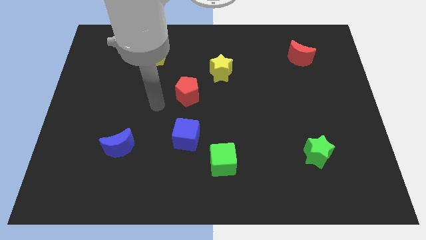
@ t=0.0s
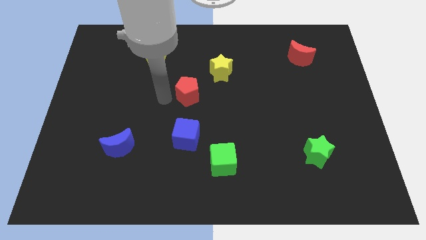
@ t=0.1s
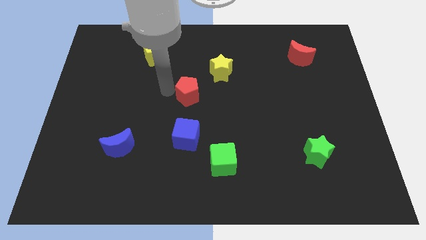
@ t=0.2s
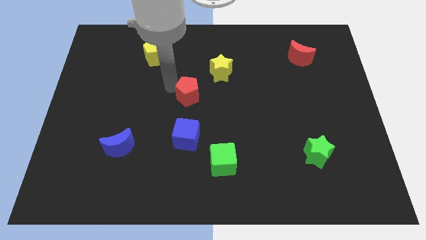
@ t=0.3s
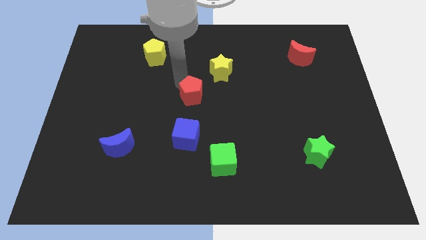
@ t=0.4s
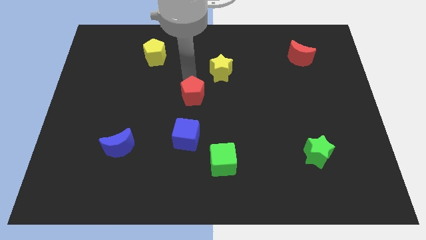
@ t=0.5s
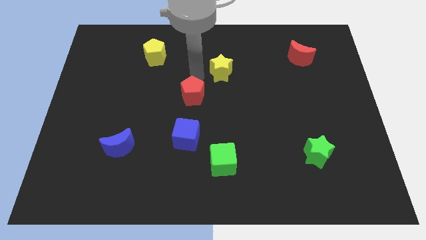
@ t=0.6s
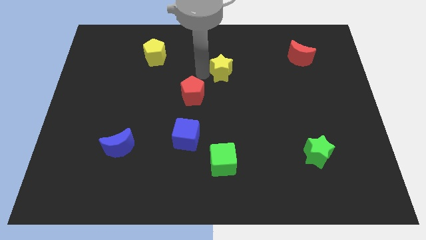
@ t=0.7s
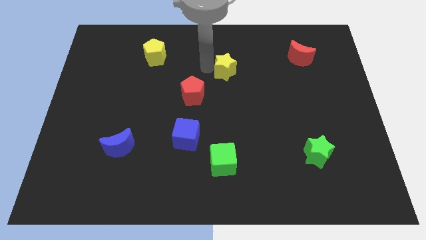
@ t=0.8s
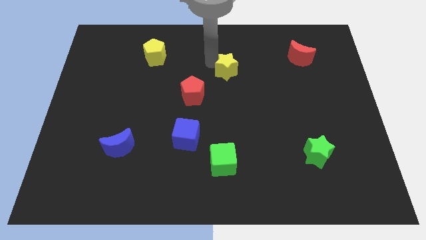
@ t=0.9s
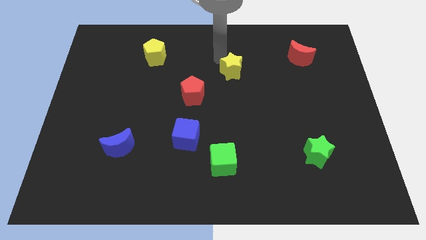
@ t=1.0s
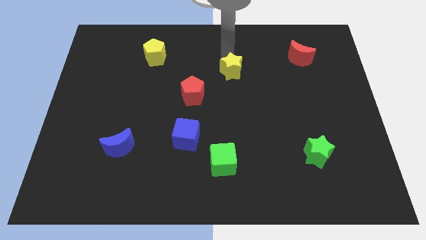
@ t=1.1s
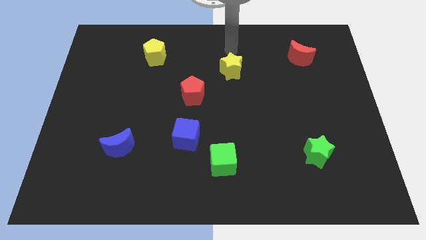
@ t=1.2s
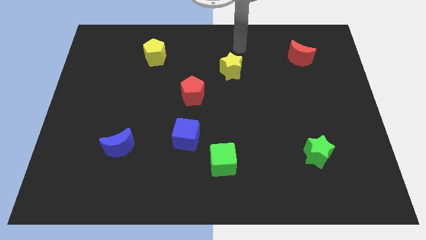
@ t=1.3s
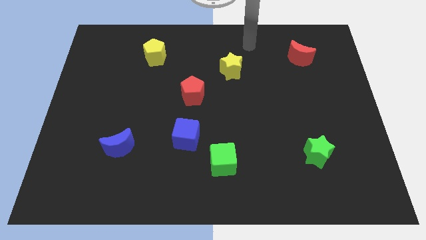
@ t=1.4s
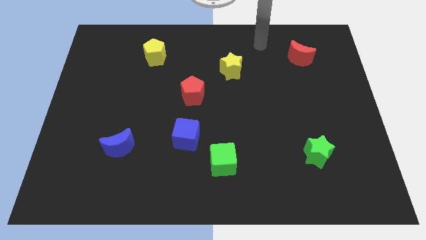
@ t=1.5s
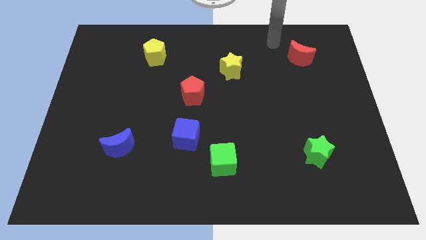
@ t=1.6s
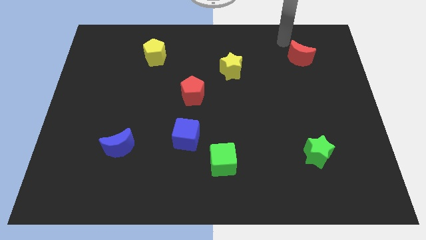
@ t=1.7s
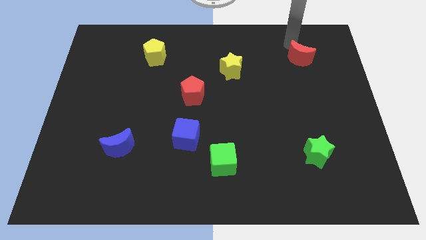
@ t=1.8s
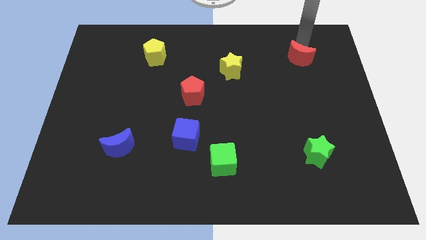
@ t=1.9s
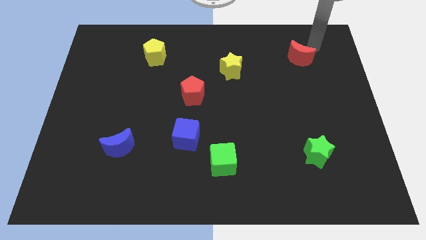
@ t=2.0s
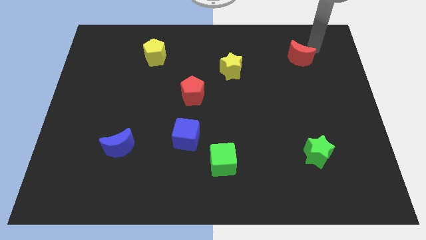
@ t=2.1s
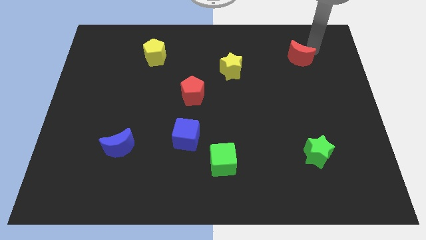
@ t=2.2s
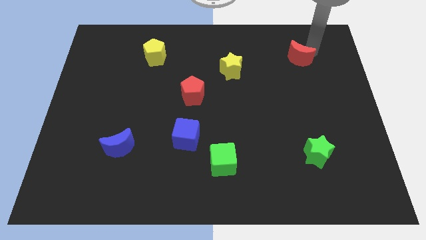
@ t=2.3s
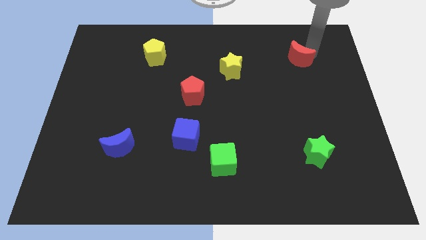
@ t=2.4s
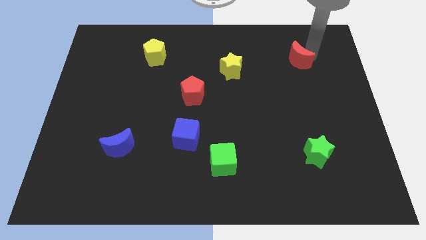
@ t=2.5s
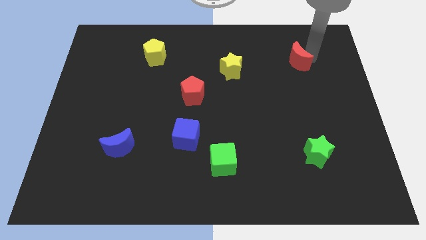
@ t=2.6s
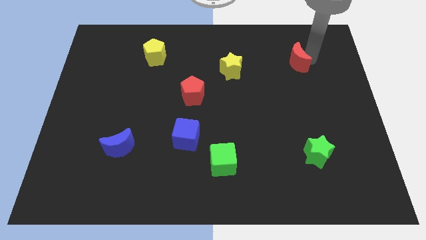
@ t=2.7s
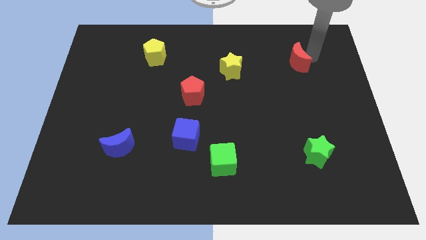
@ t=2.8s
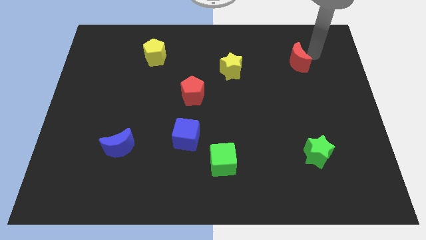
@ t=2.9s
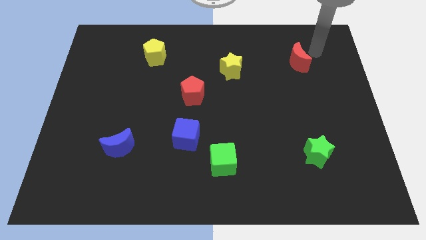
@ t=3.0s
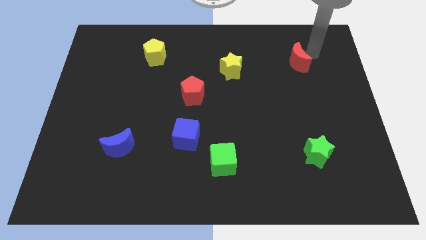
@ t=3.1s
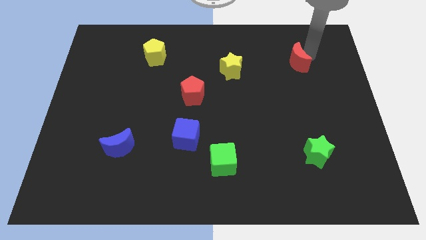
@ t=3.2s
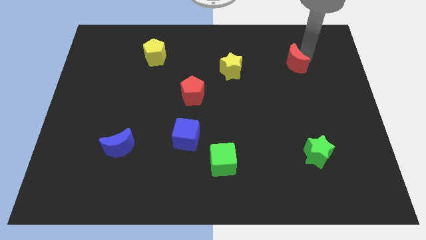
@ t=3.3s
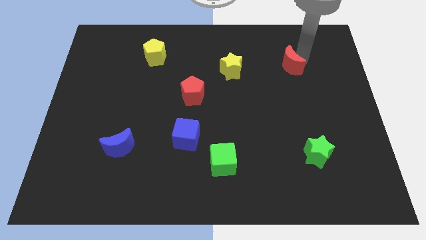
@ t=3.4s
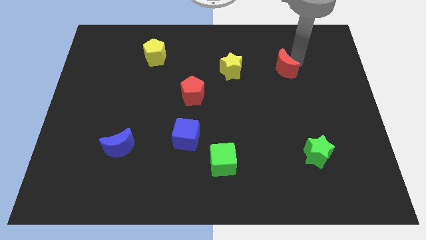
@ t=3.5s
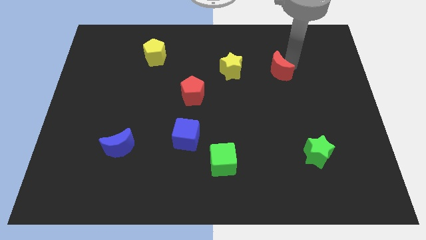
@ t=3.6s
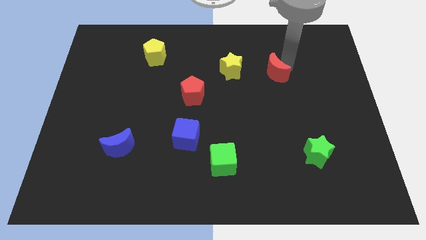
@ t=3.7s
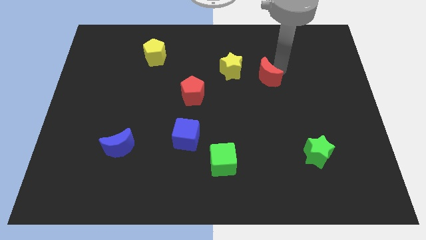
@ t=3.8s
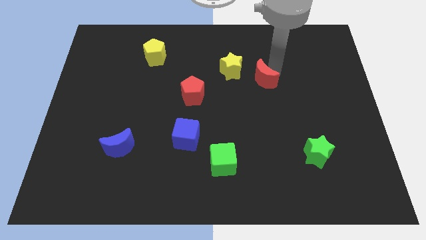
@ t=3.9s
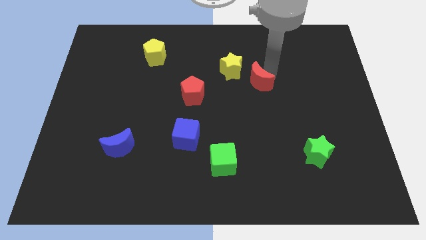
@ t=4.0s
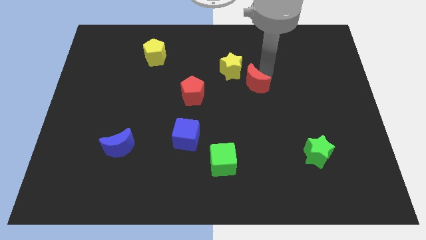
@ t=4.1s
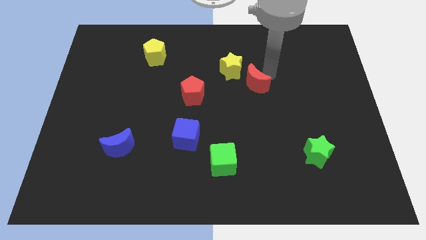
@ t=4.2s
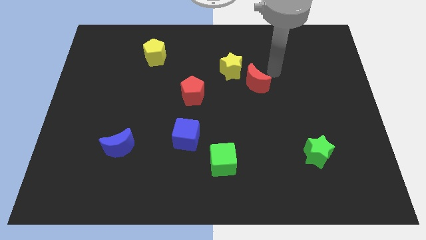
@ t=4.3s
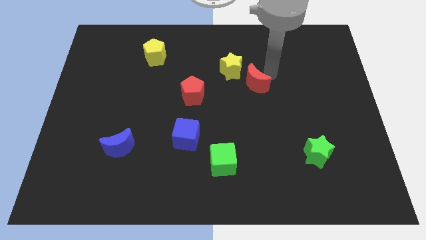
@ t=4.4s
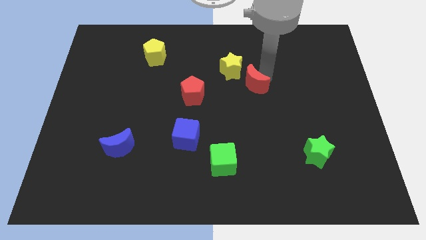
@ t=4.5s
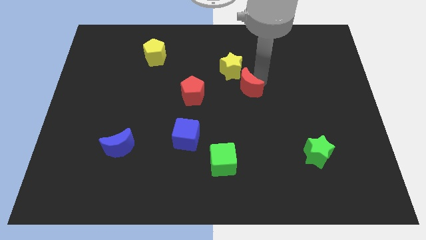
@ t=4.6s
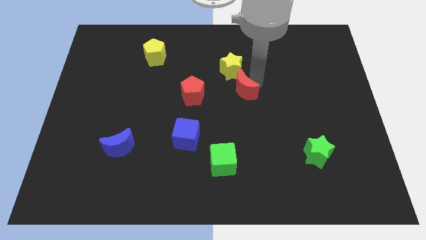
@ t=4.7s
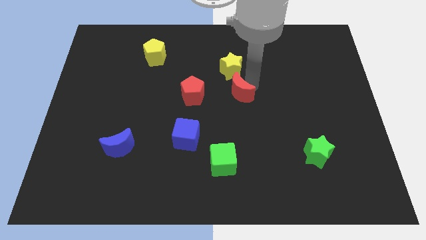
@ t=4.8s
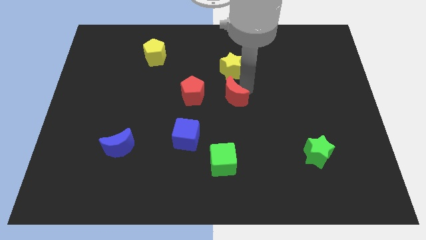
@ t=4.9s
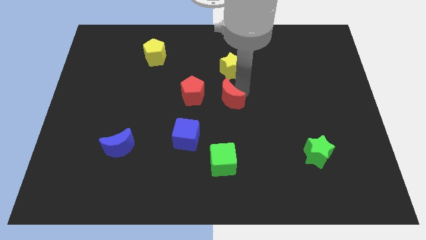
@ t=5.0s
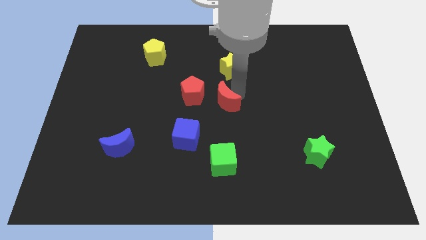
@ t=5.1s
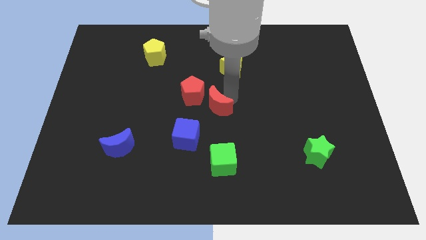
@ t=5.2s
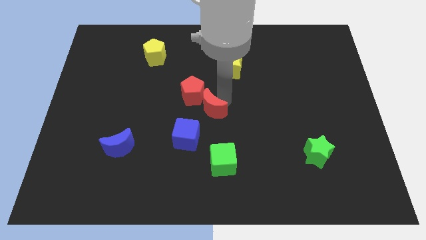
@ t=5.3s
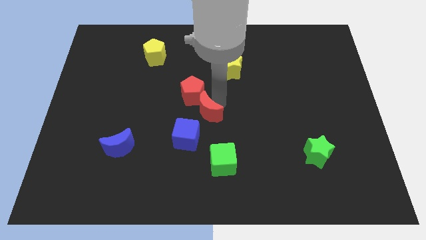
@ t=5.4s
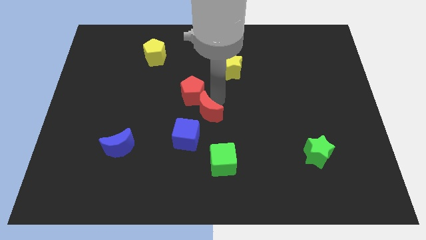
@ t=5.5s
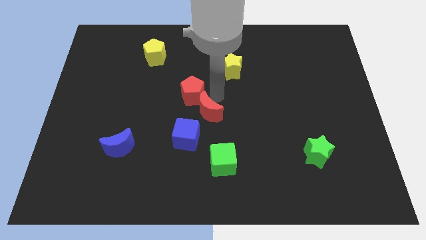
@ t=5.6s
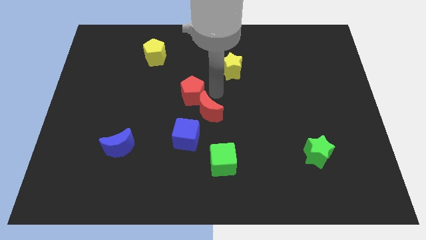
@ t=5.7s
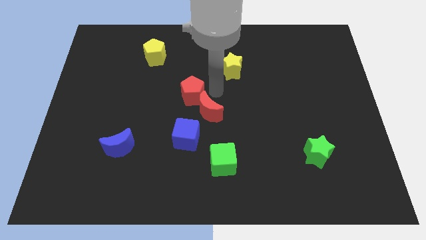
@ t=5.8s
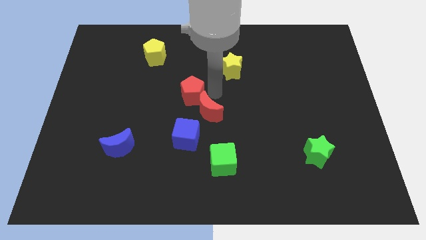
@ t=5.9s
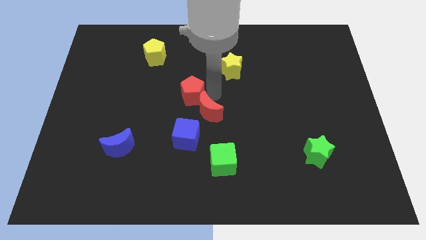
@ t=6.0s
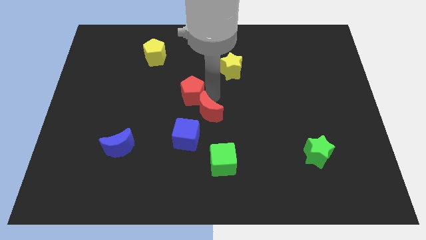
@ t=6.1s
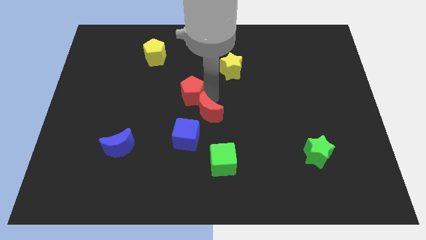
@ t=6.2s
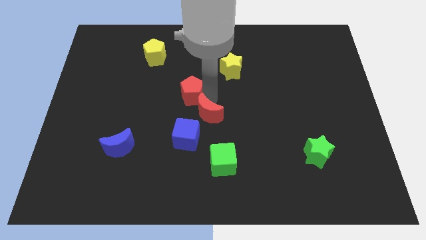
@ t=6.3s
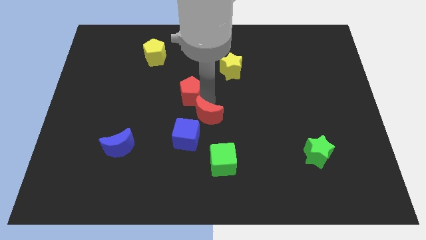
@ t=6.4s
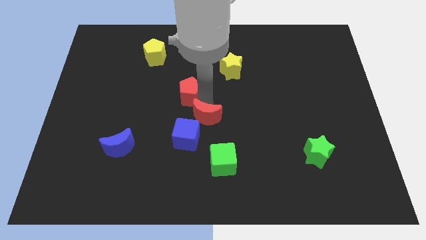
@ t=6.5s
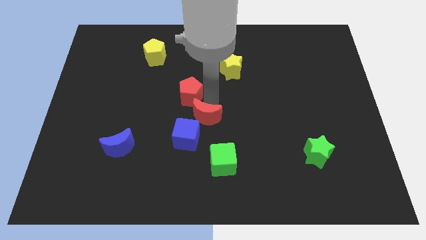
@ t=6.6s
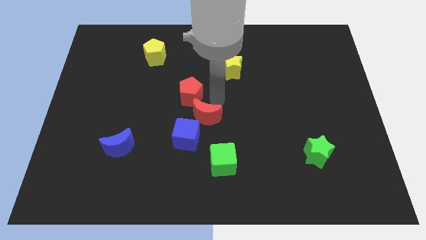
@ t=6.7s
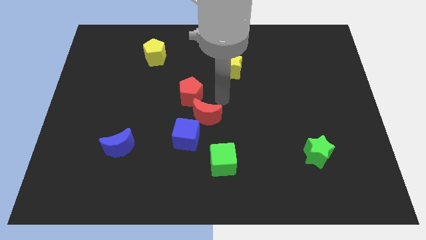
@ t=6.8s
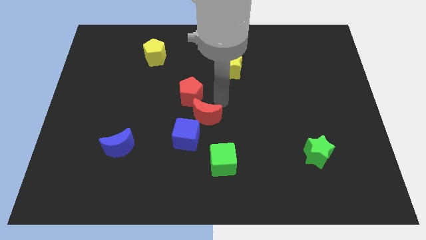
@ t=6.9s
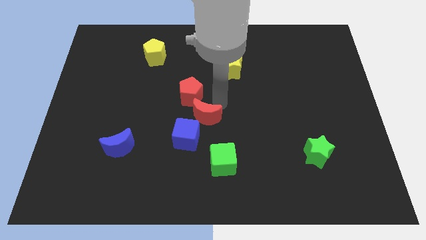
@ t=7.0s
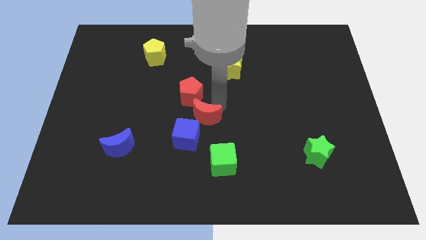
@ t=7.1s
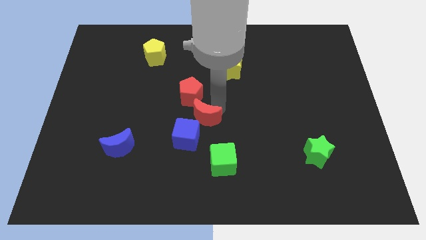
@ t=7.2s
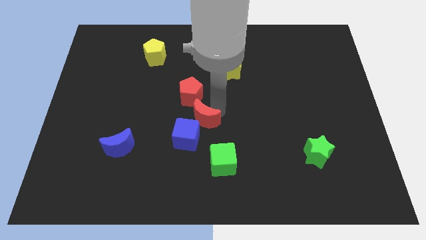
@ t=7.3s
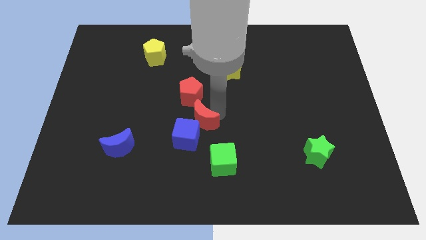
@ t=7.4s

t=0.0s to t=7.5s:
move the red moon towards the blue cube
